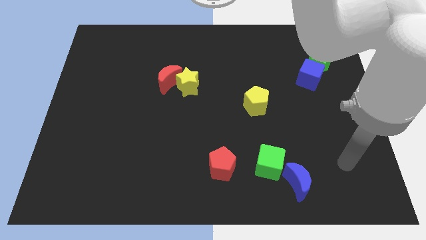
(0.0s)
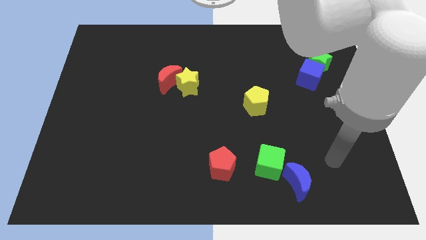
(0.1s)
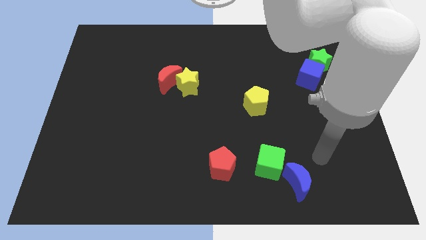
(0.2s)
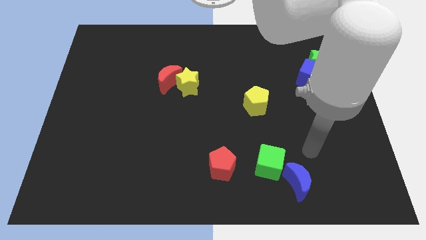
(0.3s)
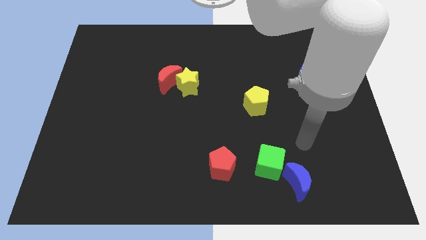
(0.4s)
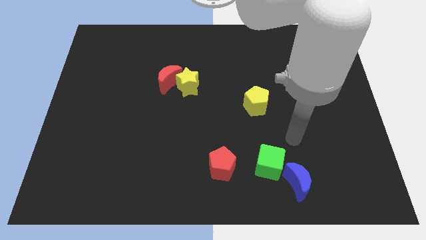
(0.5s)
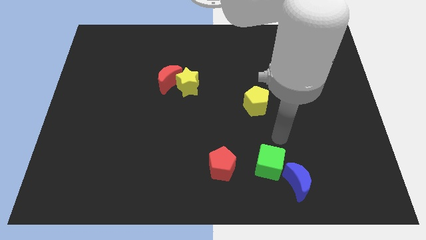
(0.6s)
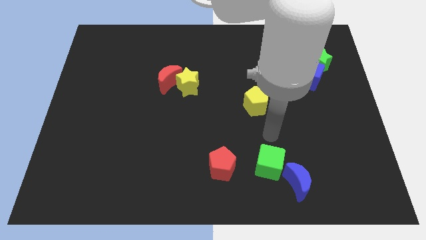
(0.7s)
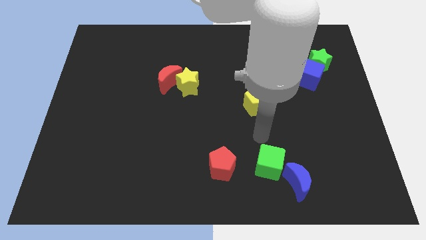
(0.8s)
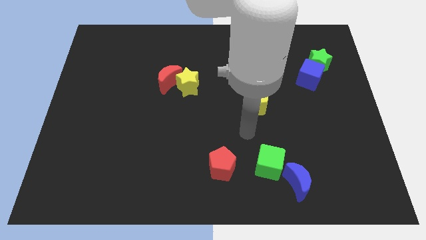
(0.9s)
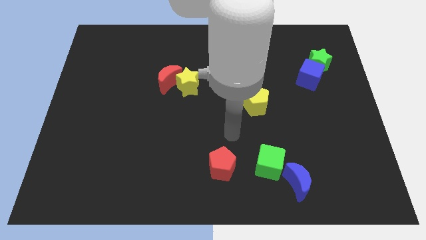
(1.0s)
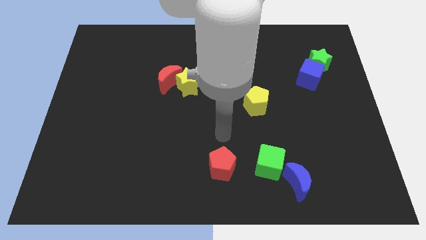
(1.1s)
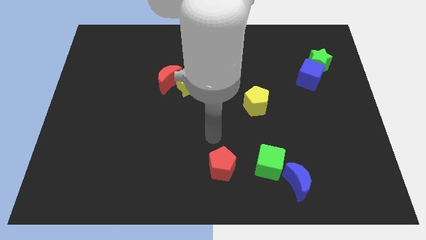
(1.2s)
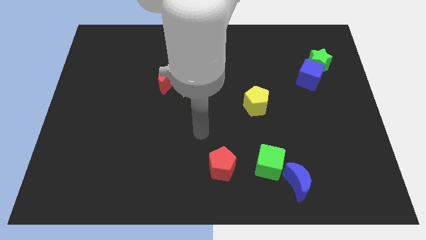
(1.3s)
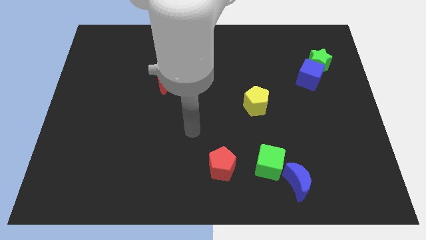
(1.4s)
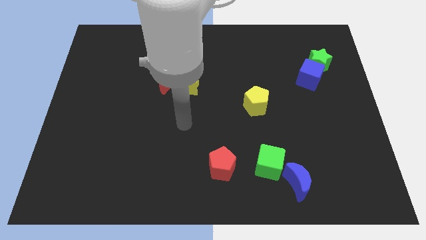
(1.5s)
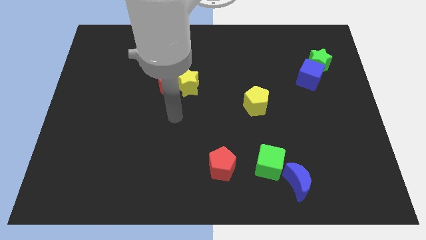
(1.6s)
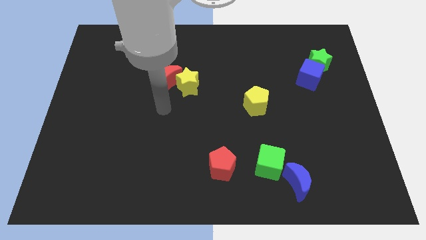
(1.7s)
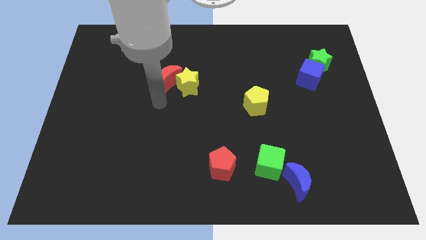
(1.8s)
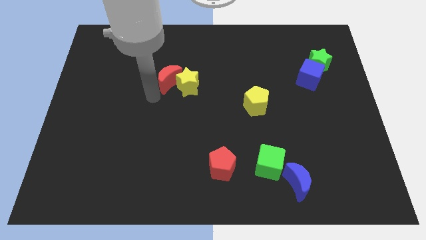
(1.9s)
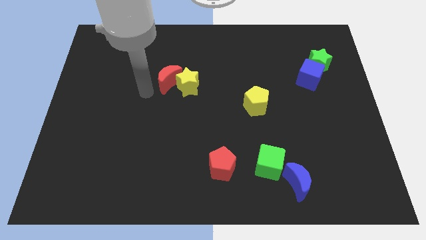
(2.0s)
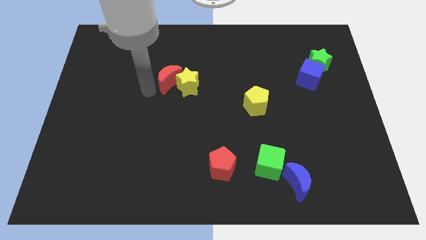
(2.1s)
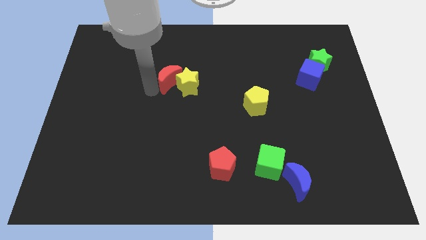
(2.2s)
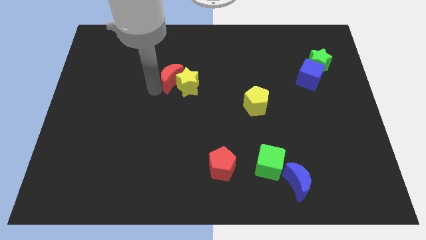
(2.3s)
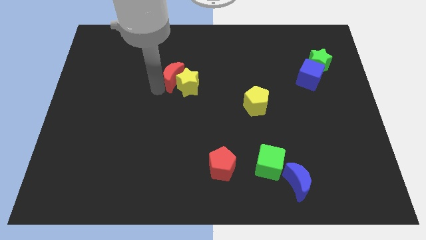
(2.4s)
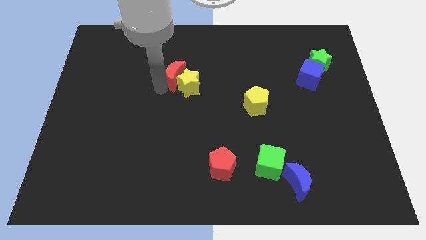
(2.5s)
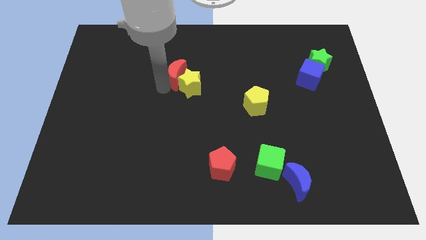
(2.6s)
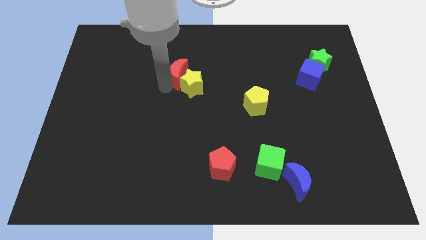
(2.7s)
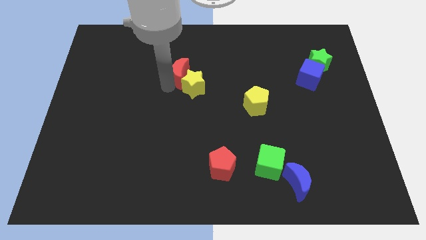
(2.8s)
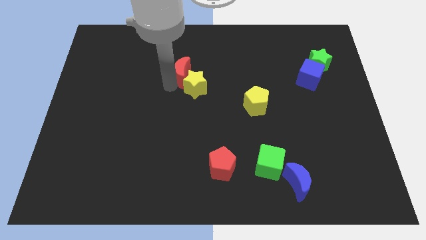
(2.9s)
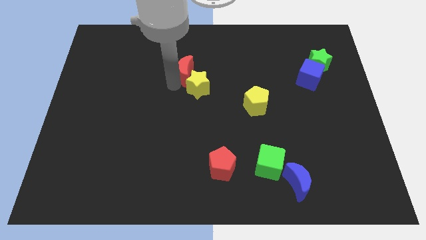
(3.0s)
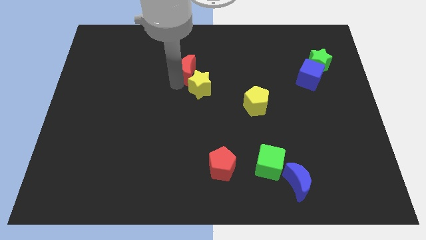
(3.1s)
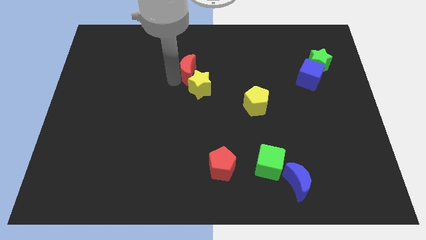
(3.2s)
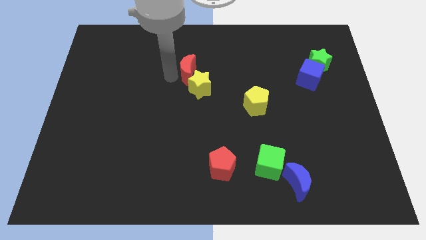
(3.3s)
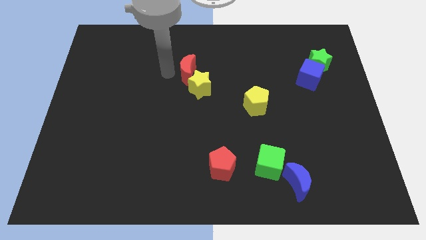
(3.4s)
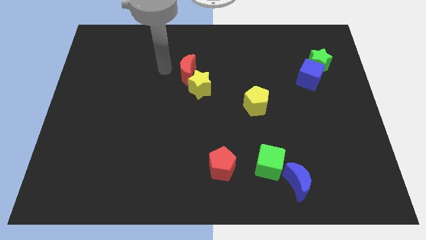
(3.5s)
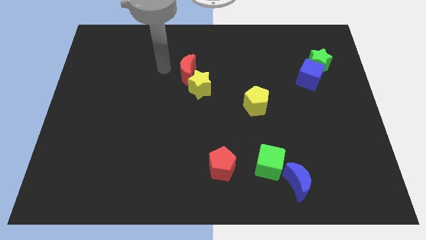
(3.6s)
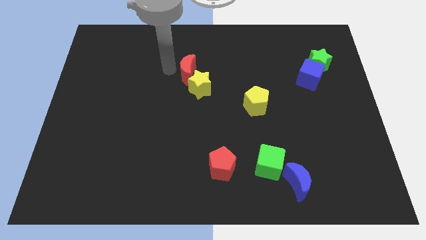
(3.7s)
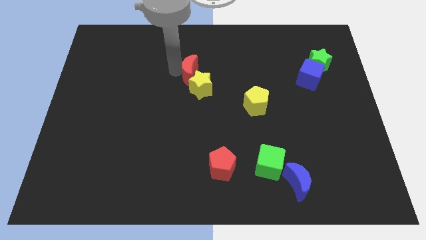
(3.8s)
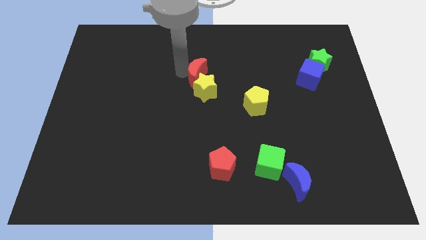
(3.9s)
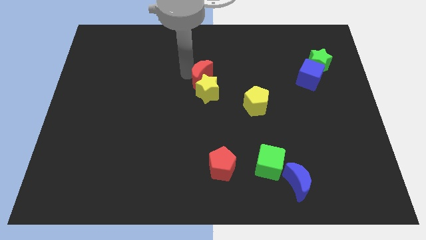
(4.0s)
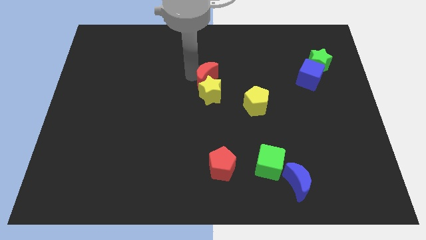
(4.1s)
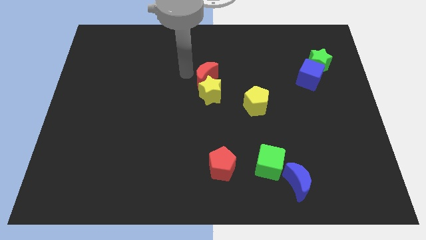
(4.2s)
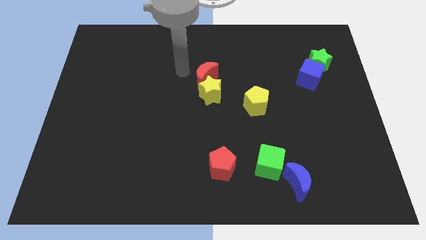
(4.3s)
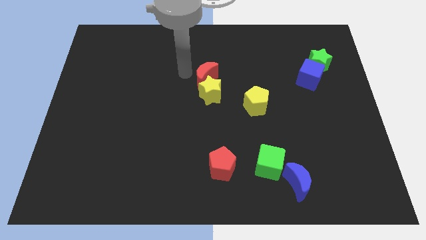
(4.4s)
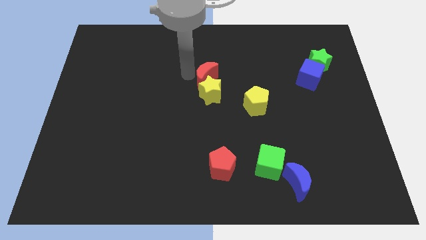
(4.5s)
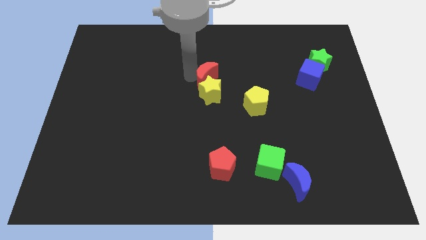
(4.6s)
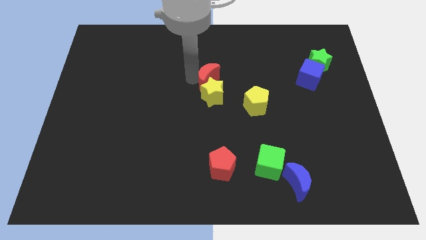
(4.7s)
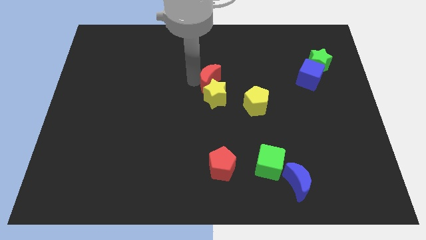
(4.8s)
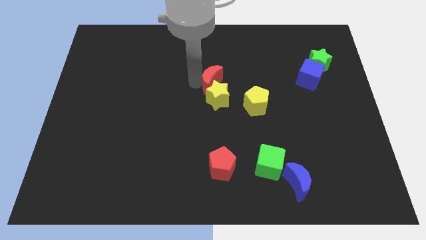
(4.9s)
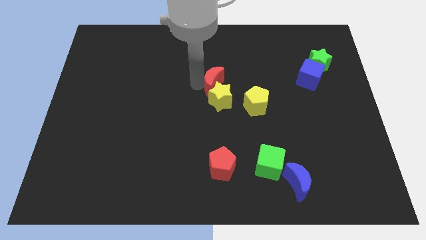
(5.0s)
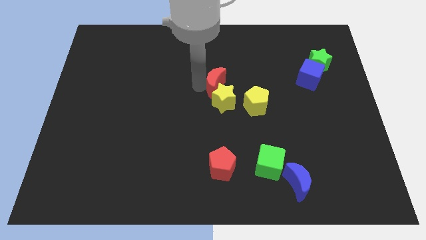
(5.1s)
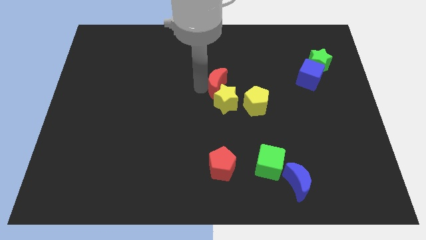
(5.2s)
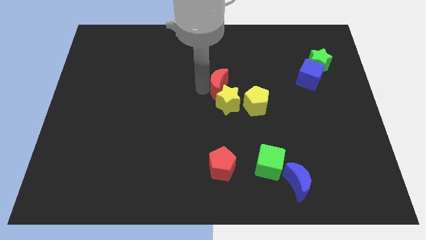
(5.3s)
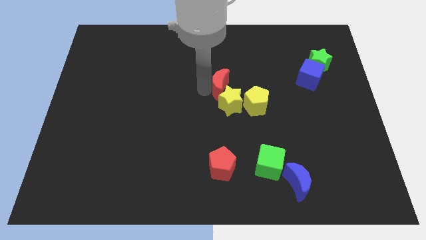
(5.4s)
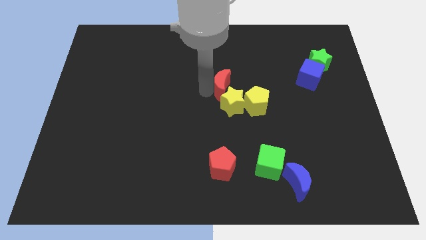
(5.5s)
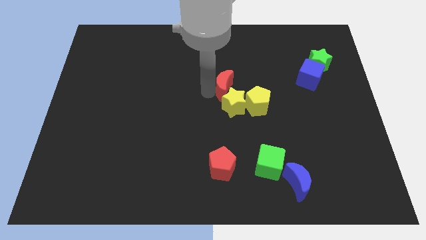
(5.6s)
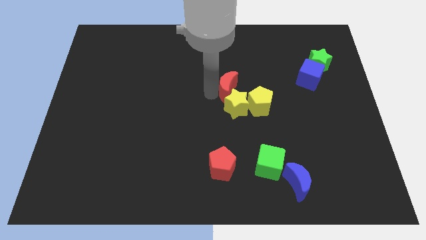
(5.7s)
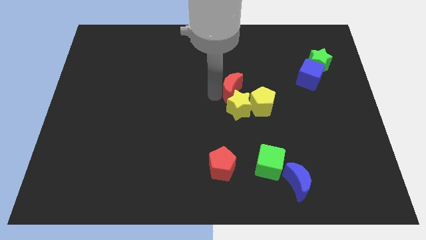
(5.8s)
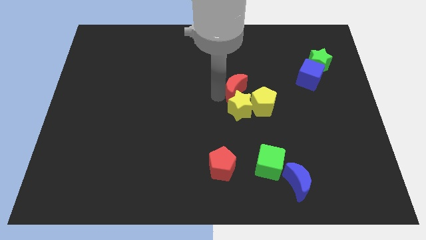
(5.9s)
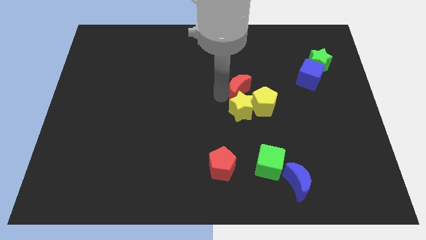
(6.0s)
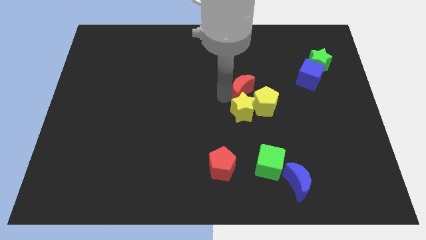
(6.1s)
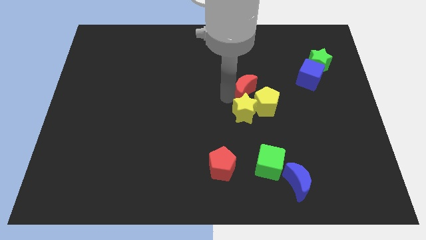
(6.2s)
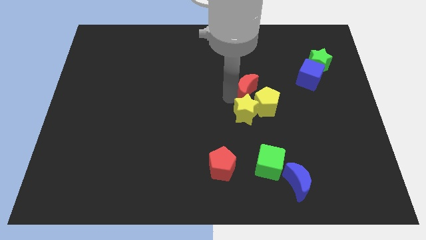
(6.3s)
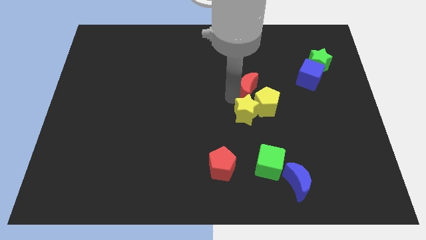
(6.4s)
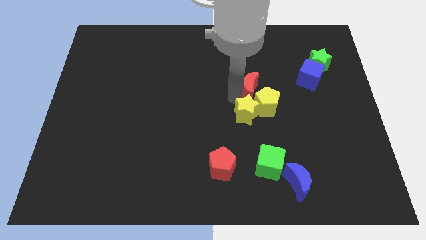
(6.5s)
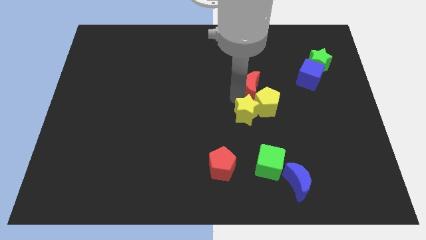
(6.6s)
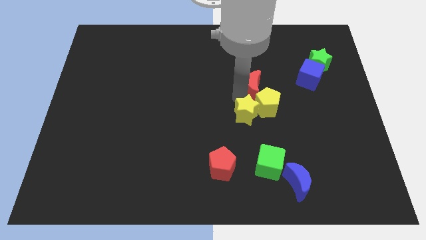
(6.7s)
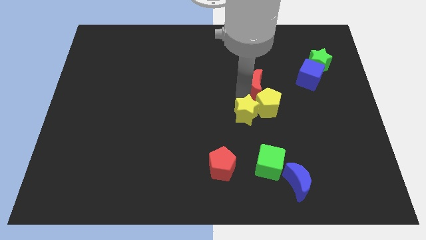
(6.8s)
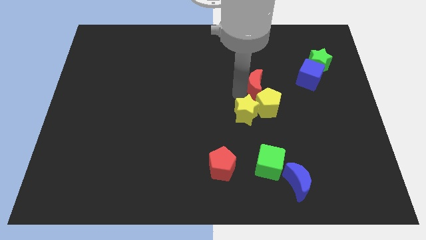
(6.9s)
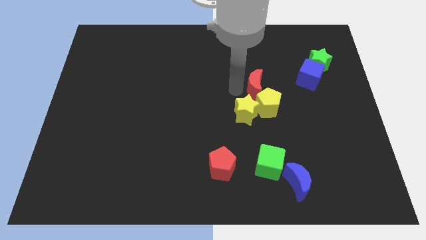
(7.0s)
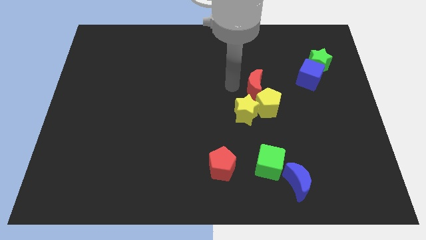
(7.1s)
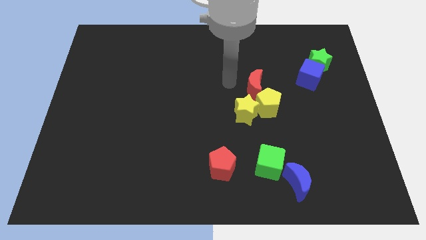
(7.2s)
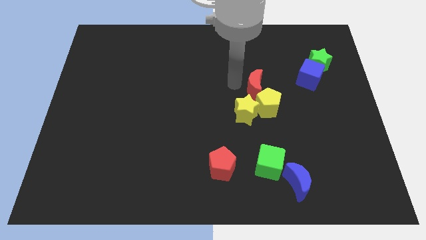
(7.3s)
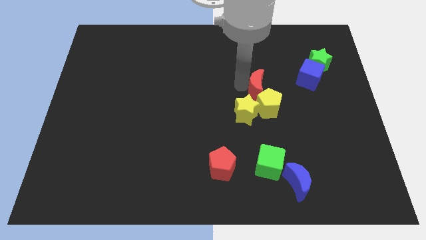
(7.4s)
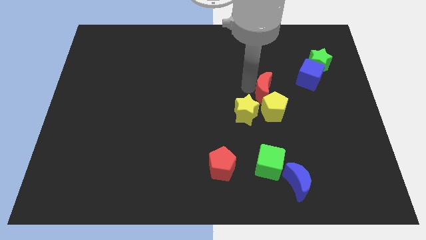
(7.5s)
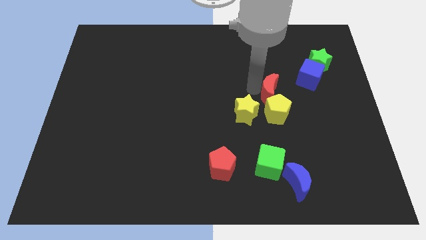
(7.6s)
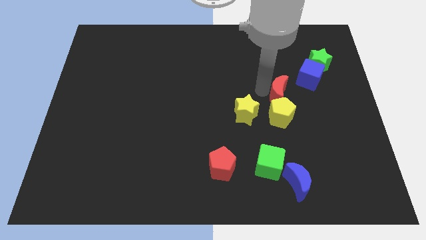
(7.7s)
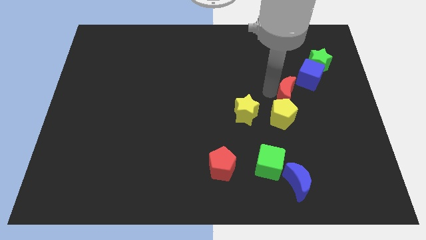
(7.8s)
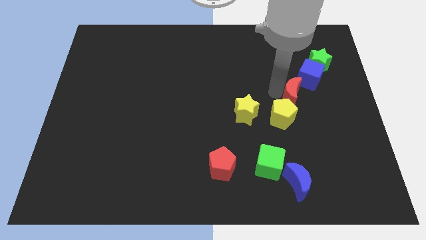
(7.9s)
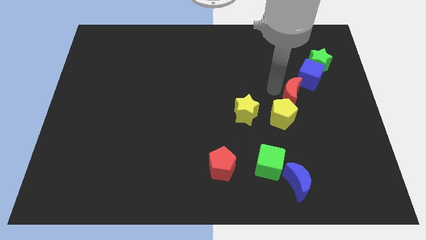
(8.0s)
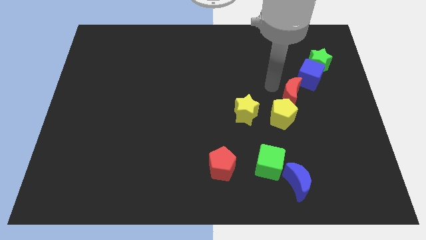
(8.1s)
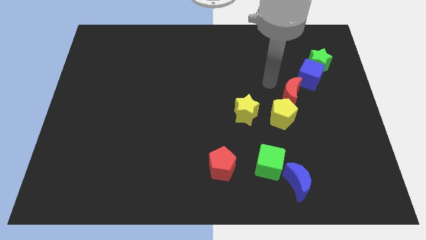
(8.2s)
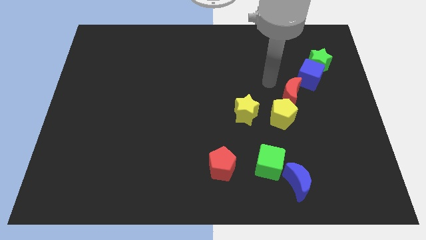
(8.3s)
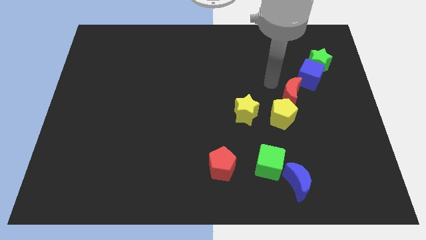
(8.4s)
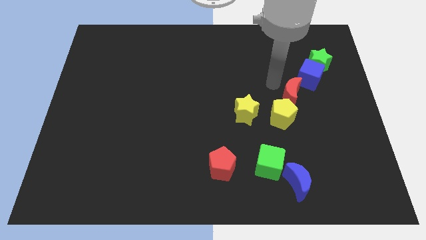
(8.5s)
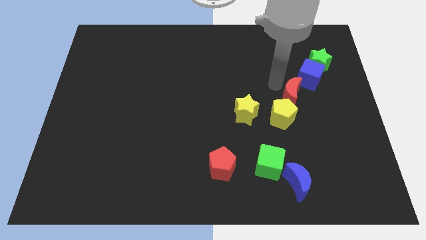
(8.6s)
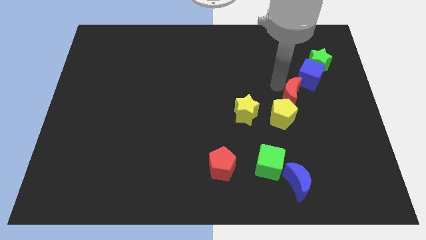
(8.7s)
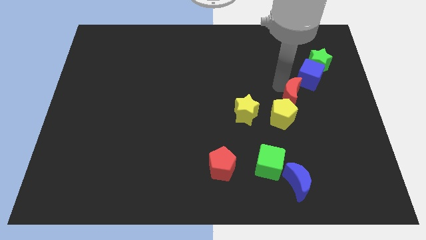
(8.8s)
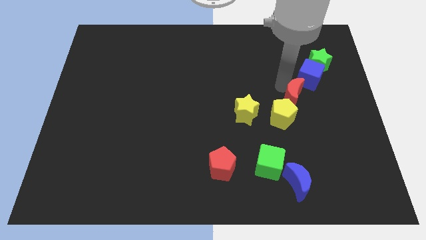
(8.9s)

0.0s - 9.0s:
slide the red moon to the bottom side of the blue cube
